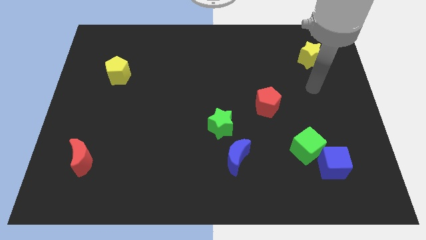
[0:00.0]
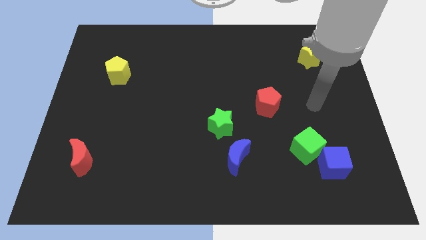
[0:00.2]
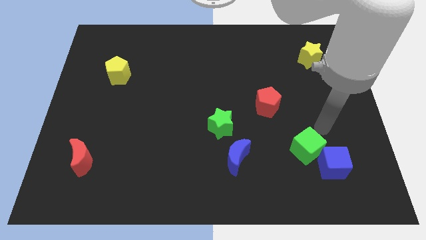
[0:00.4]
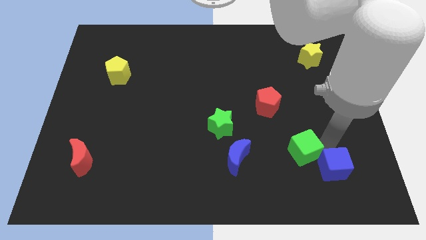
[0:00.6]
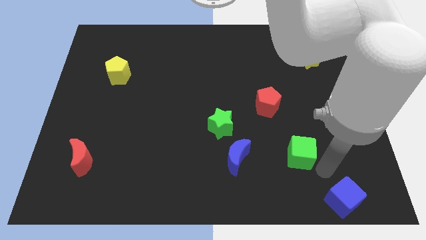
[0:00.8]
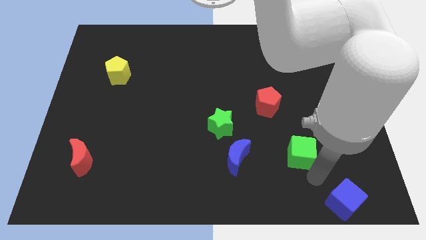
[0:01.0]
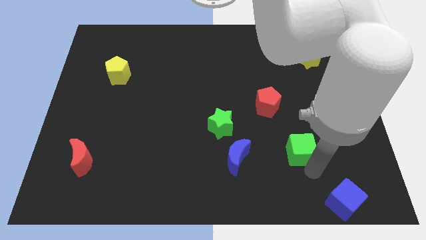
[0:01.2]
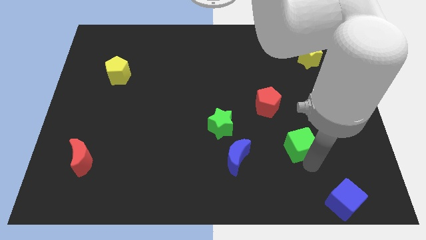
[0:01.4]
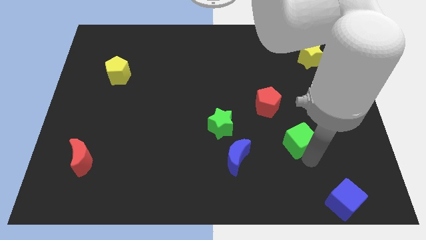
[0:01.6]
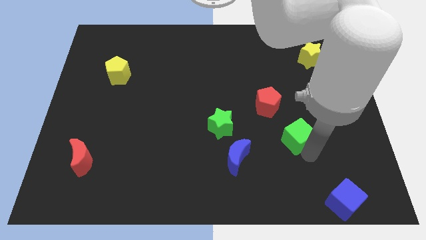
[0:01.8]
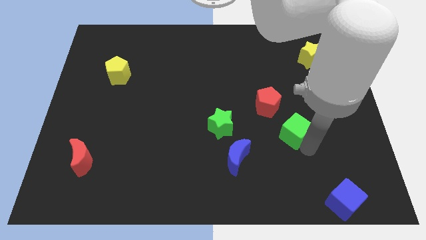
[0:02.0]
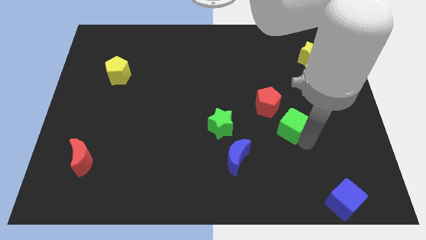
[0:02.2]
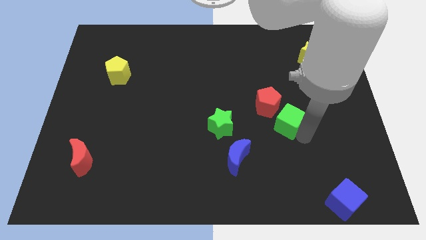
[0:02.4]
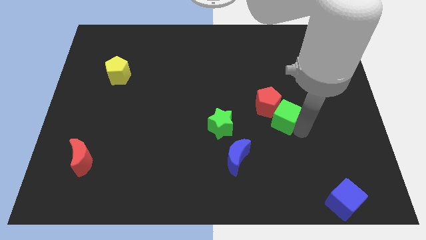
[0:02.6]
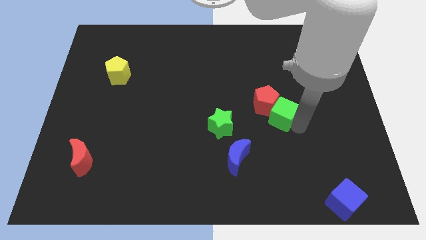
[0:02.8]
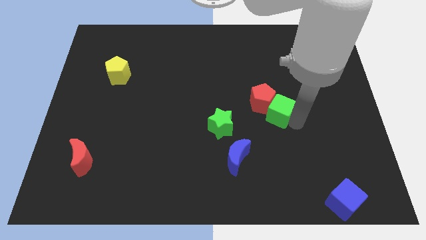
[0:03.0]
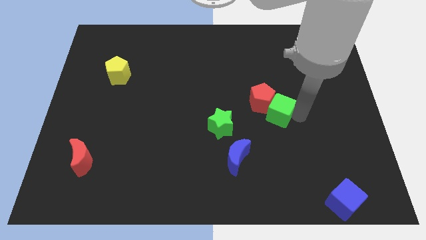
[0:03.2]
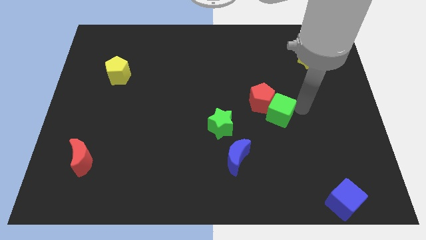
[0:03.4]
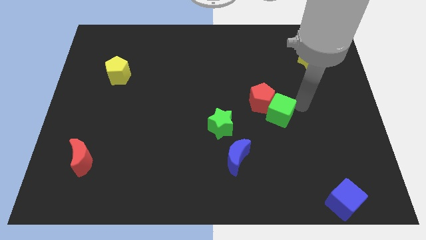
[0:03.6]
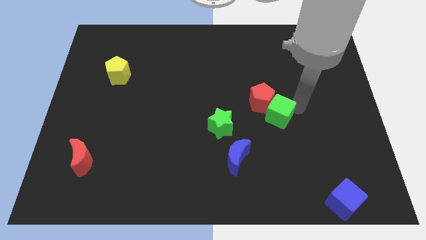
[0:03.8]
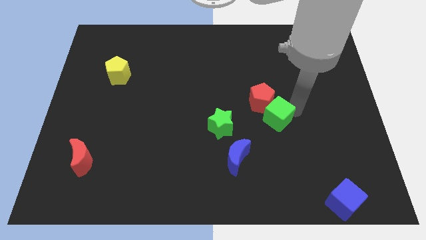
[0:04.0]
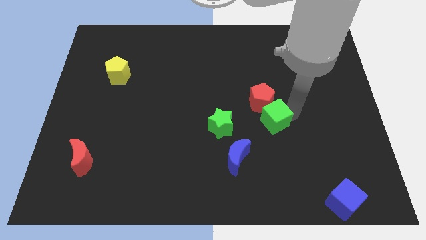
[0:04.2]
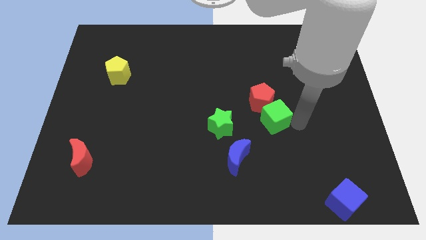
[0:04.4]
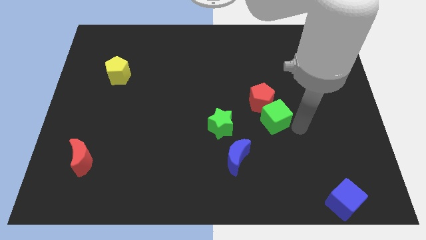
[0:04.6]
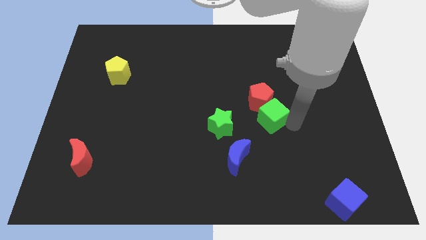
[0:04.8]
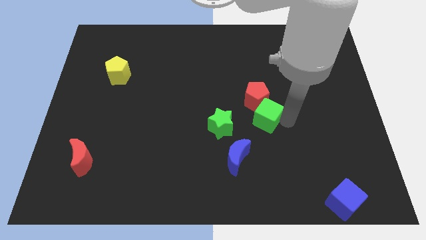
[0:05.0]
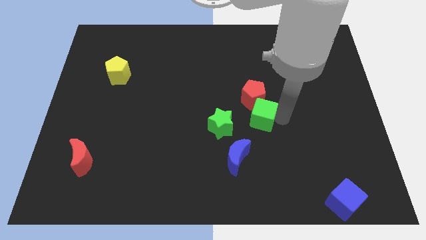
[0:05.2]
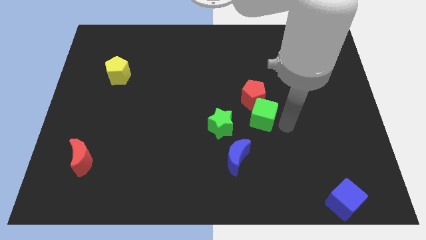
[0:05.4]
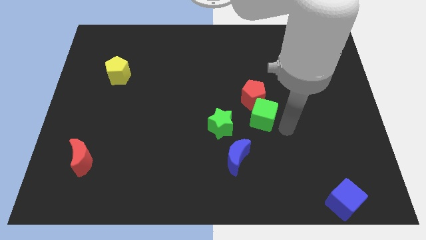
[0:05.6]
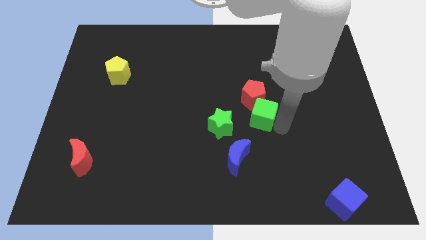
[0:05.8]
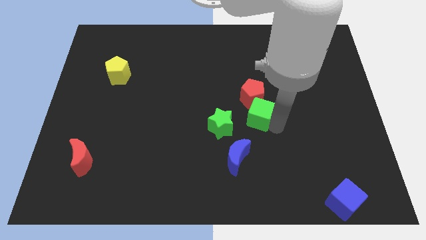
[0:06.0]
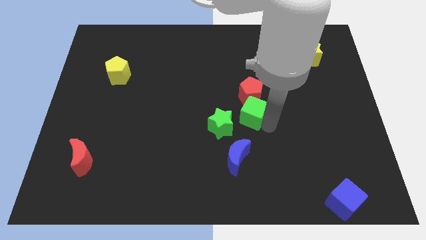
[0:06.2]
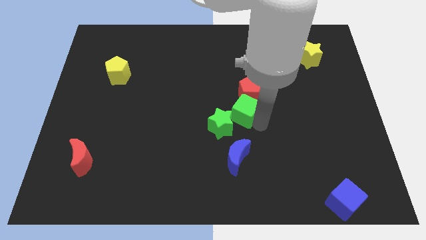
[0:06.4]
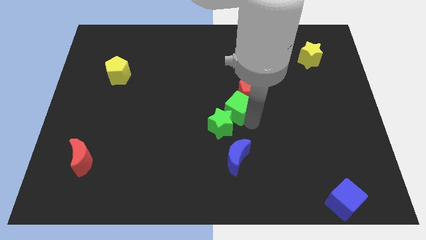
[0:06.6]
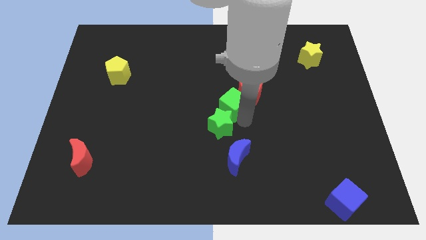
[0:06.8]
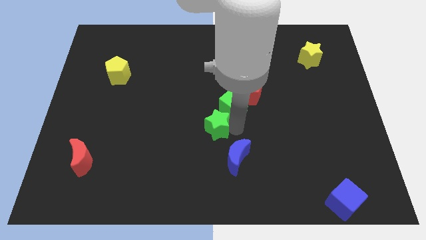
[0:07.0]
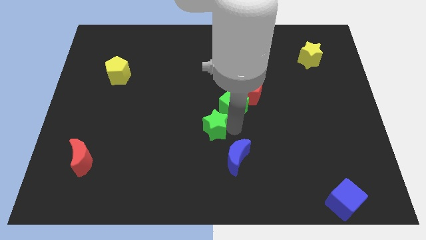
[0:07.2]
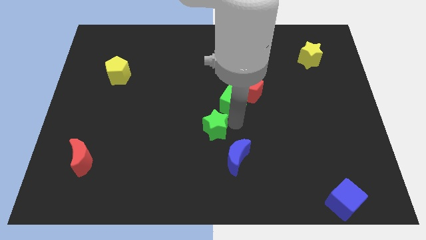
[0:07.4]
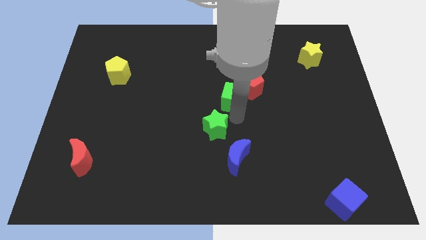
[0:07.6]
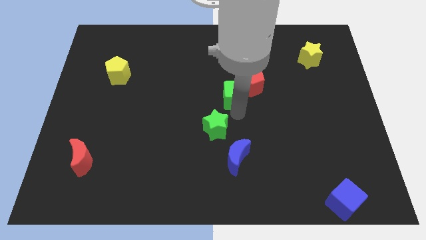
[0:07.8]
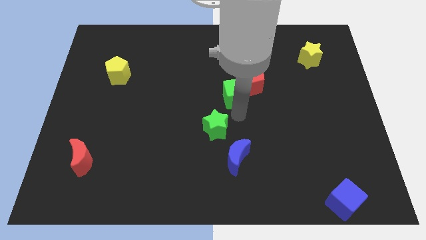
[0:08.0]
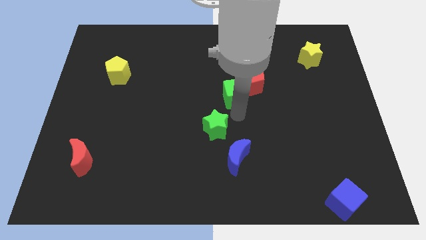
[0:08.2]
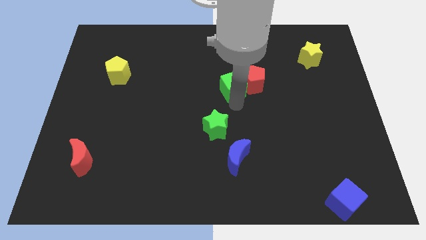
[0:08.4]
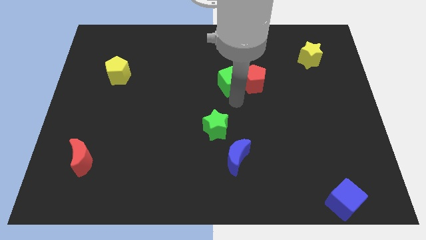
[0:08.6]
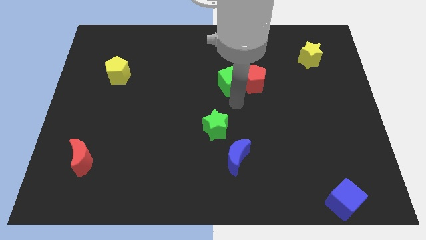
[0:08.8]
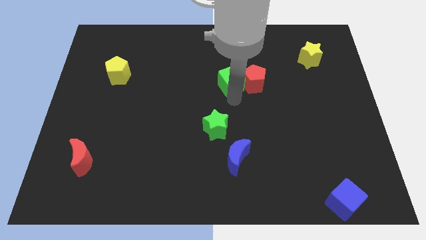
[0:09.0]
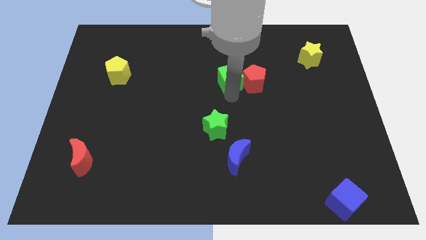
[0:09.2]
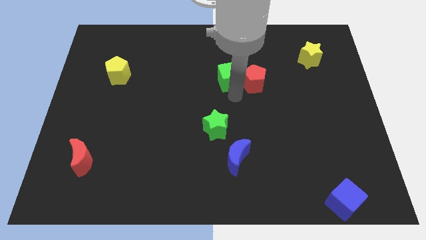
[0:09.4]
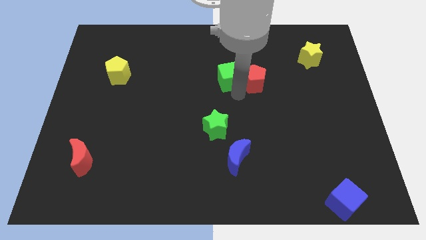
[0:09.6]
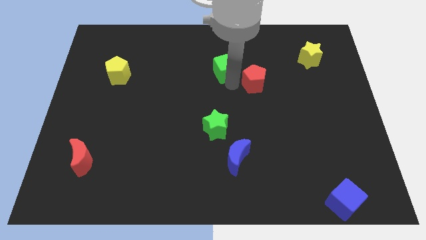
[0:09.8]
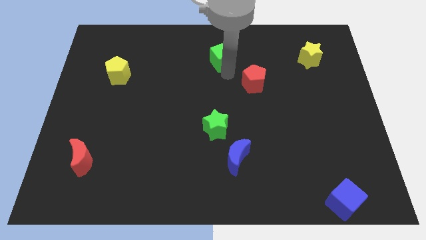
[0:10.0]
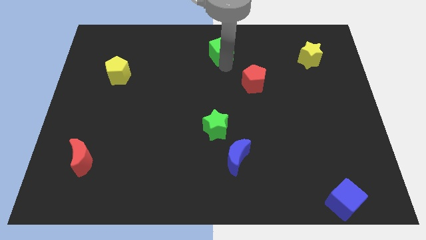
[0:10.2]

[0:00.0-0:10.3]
slide the green cube to the top side

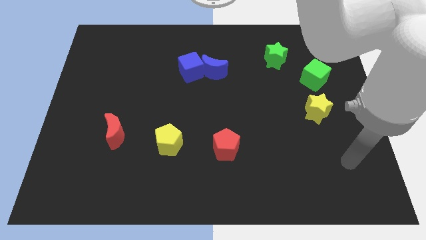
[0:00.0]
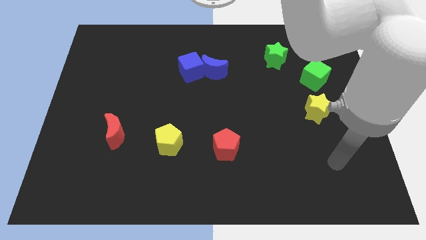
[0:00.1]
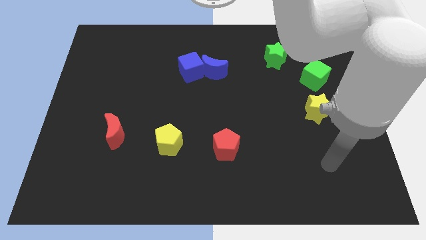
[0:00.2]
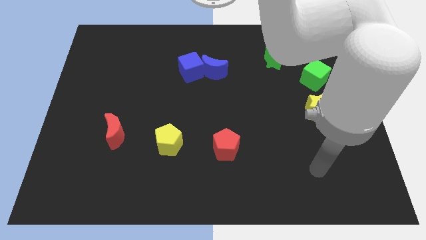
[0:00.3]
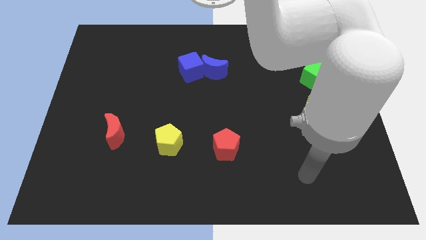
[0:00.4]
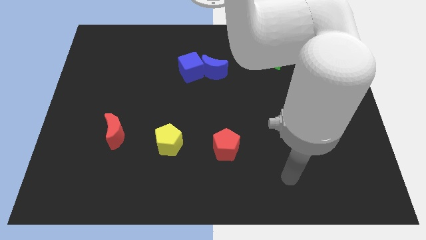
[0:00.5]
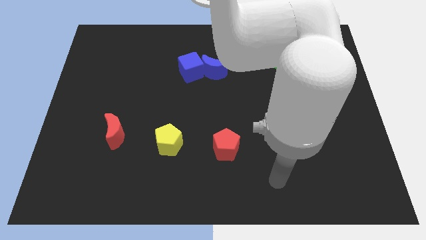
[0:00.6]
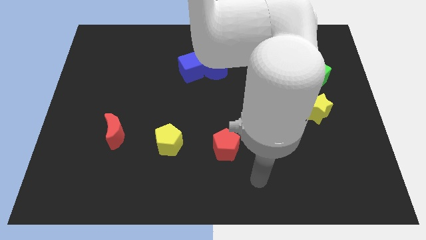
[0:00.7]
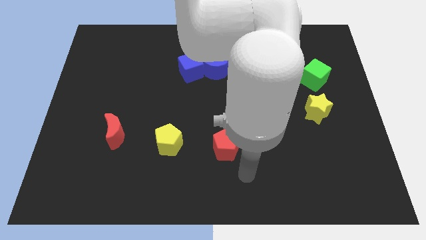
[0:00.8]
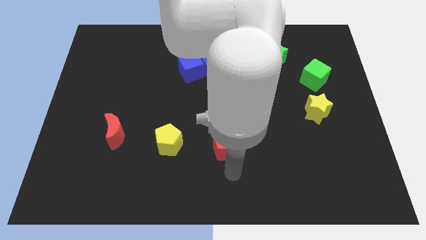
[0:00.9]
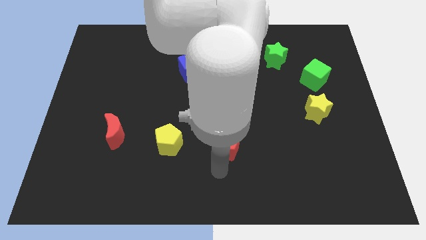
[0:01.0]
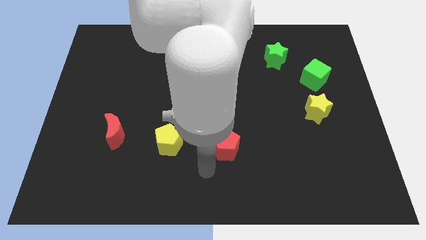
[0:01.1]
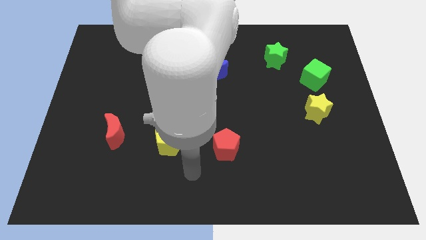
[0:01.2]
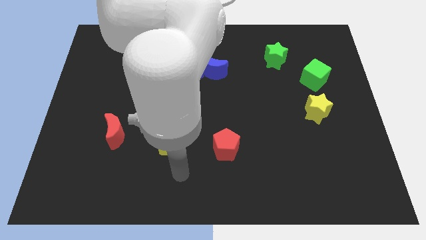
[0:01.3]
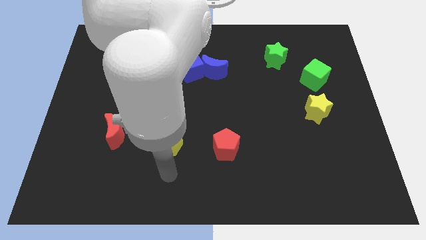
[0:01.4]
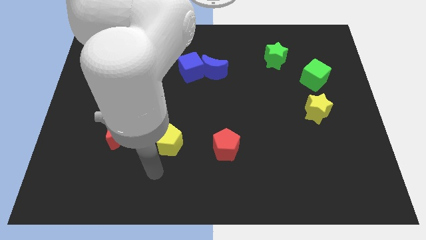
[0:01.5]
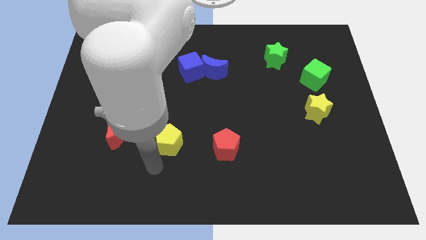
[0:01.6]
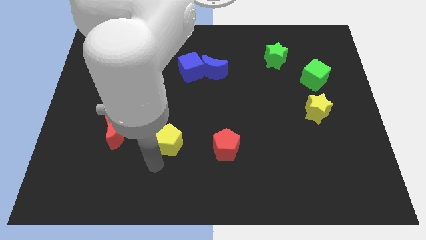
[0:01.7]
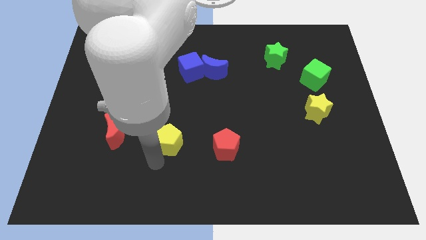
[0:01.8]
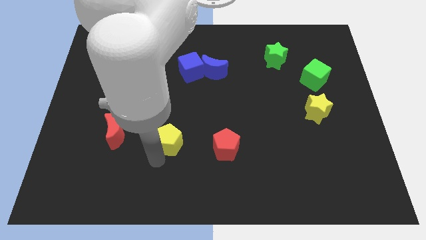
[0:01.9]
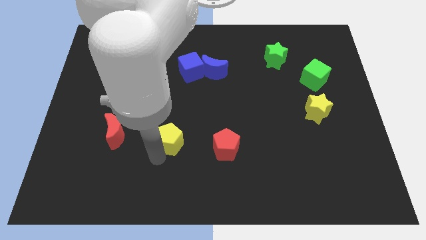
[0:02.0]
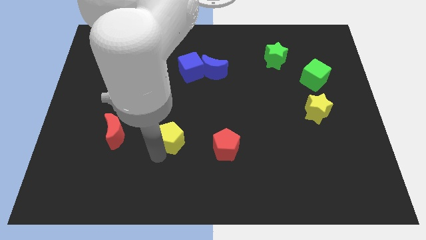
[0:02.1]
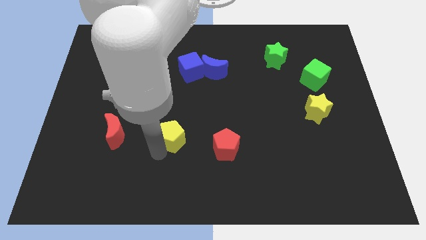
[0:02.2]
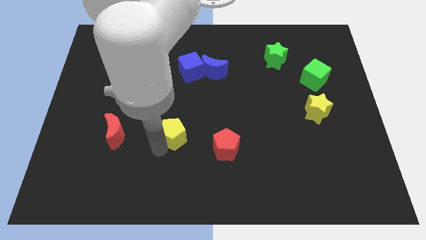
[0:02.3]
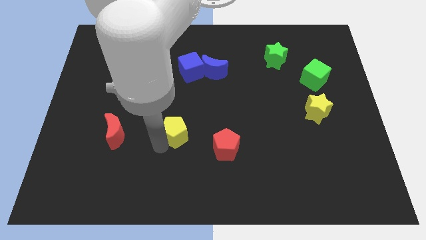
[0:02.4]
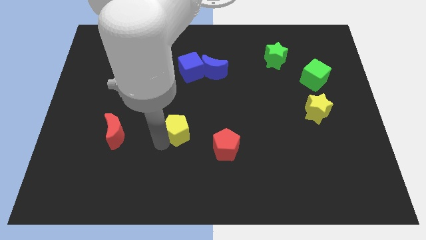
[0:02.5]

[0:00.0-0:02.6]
put the yellow pentagon to the middle of the board
